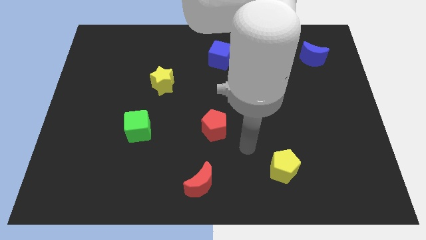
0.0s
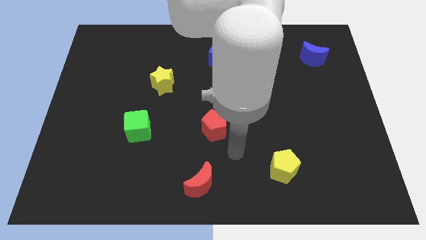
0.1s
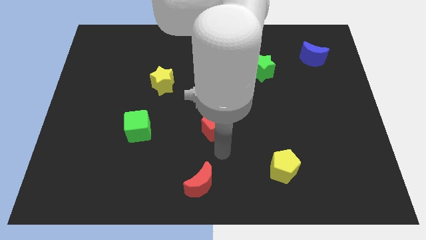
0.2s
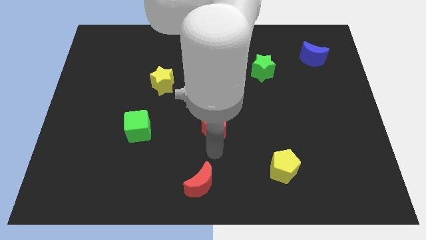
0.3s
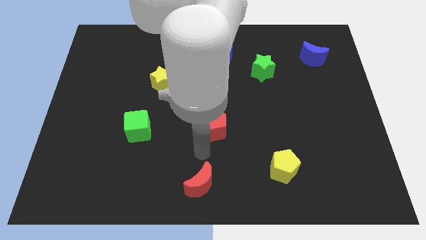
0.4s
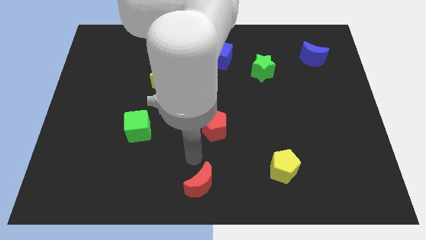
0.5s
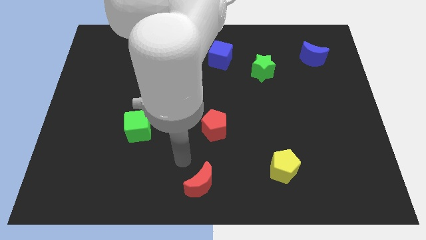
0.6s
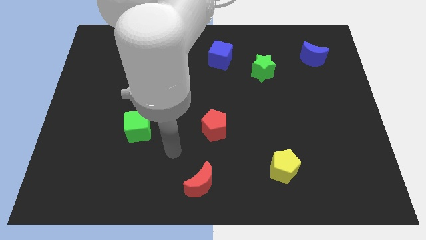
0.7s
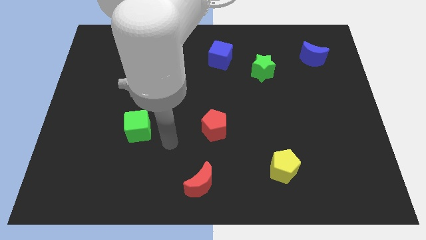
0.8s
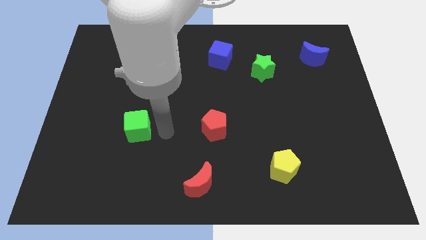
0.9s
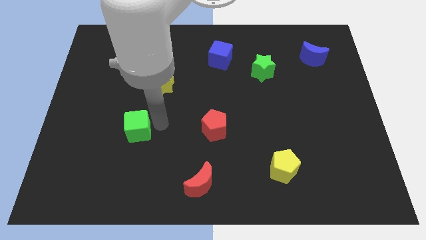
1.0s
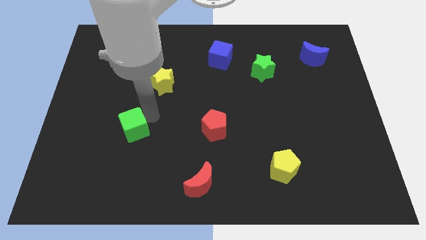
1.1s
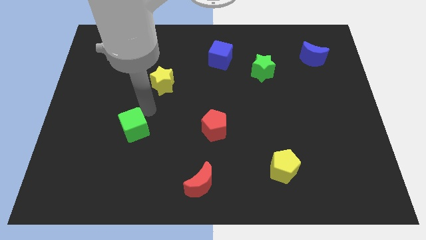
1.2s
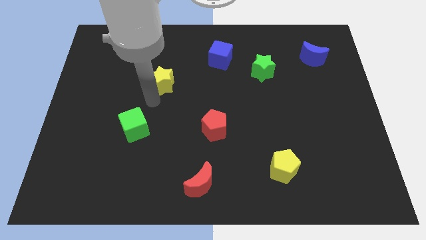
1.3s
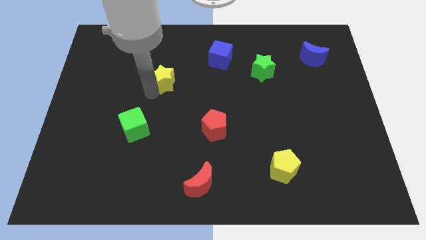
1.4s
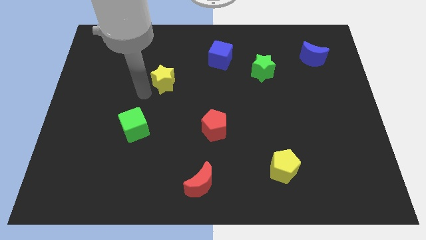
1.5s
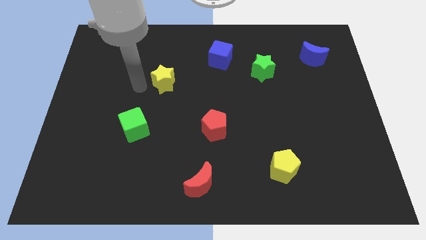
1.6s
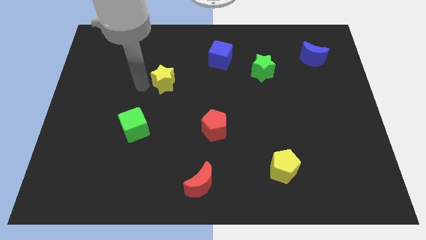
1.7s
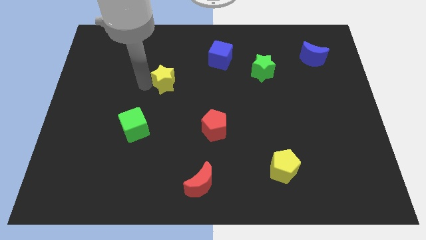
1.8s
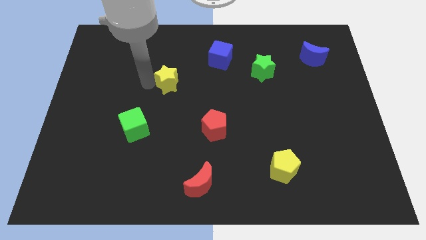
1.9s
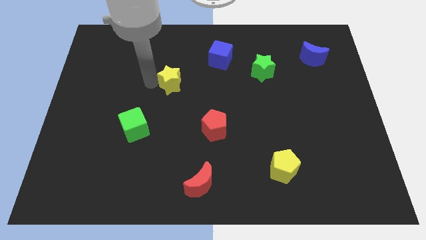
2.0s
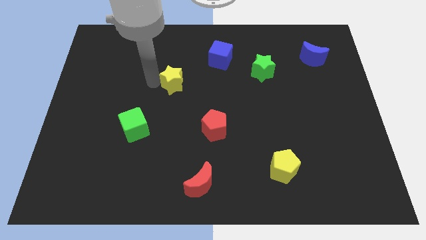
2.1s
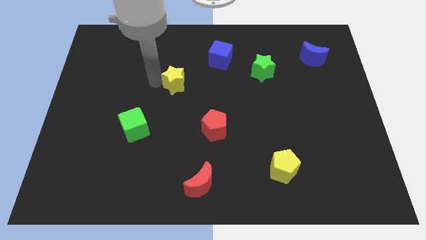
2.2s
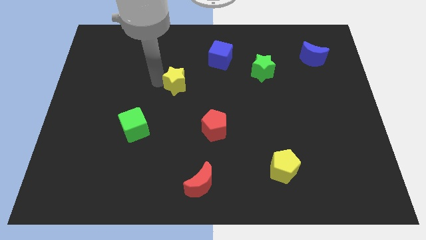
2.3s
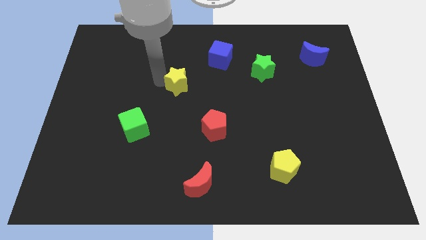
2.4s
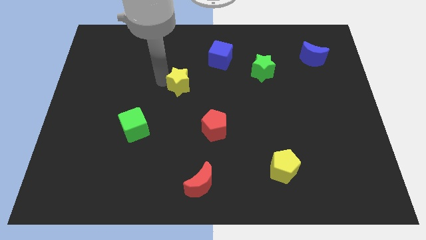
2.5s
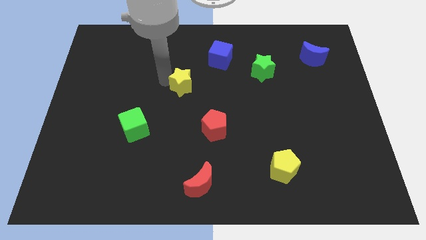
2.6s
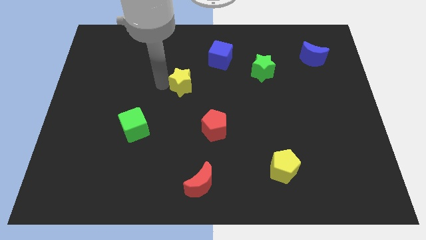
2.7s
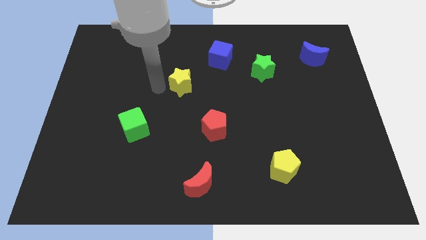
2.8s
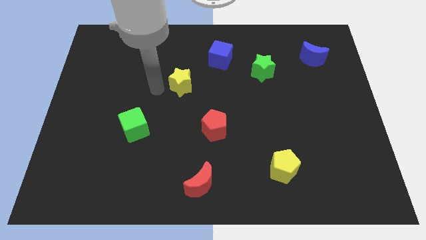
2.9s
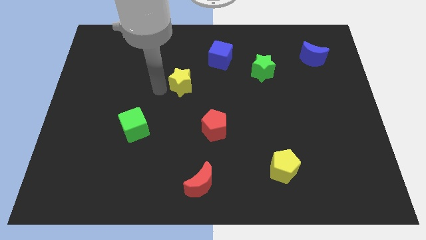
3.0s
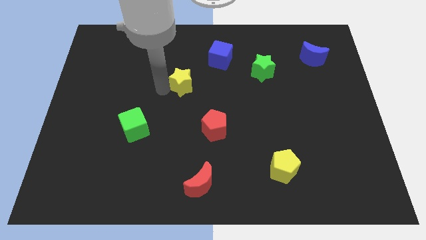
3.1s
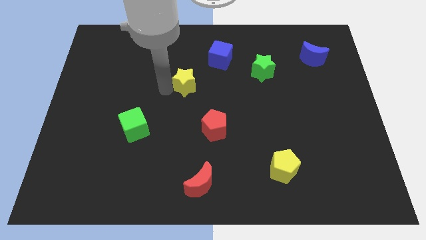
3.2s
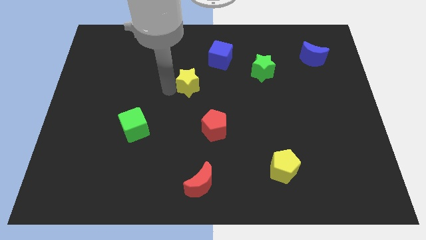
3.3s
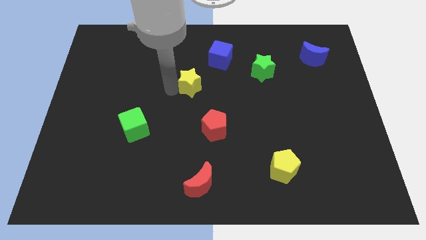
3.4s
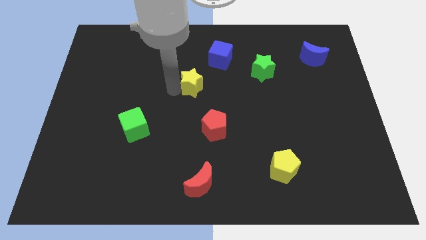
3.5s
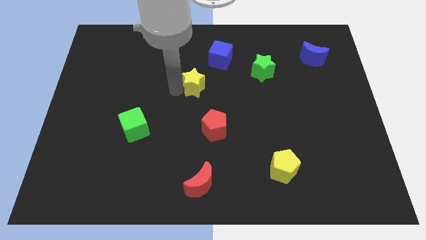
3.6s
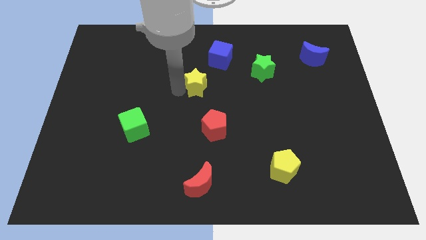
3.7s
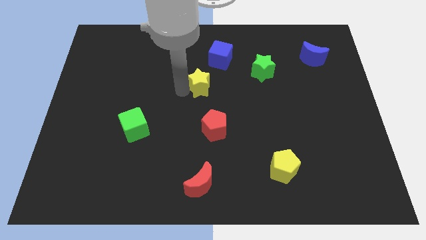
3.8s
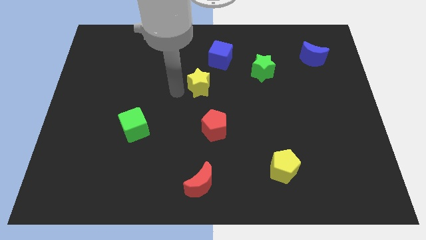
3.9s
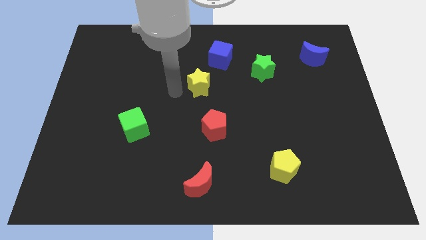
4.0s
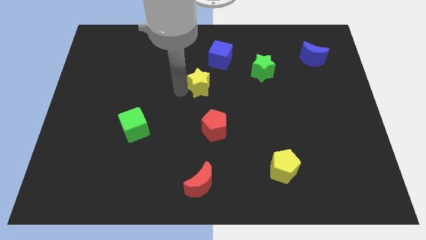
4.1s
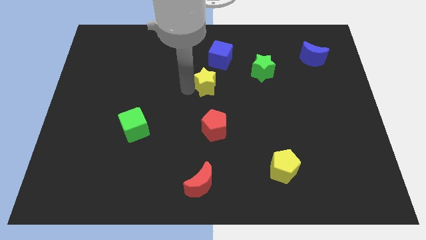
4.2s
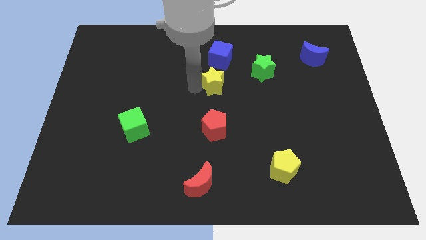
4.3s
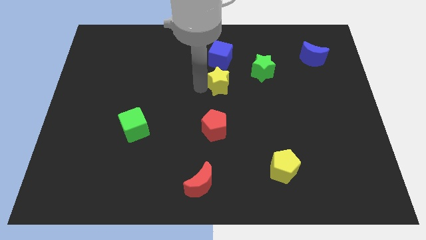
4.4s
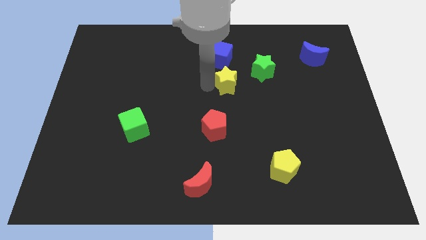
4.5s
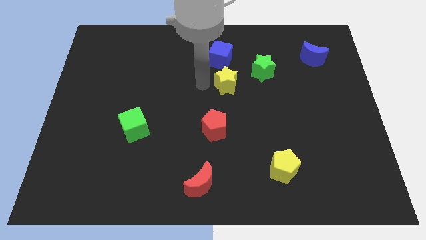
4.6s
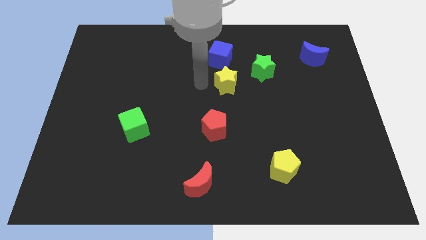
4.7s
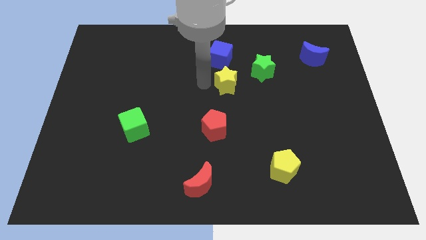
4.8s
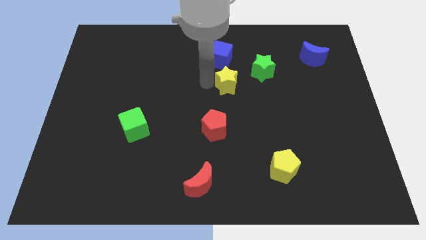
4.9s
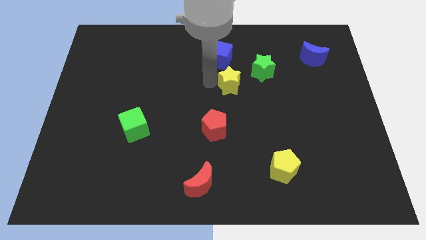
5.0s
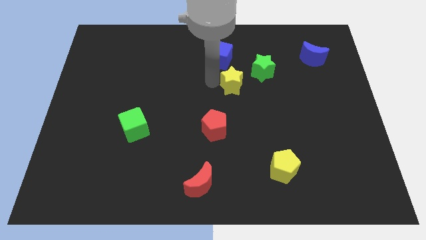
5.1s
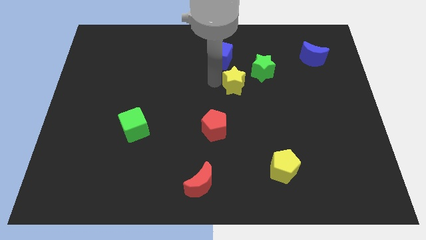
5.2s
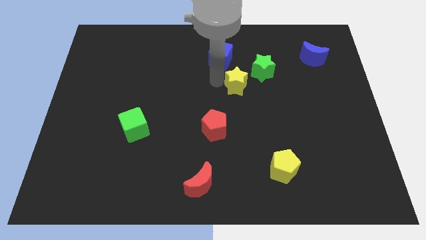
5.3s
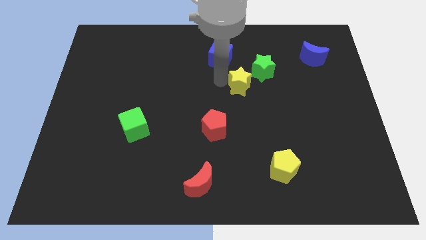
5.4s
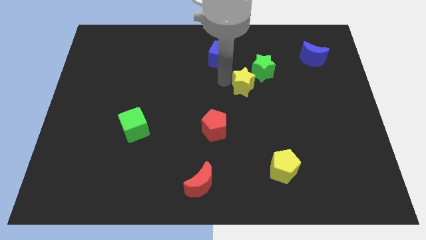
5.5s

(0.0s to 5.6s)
slide the yellow star right

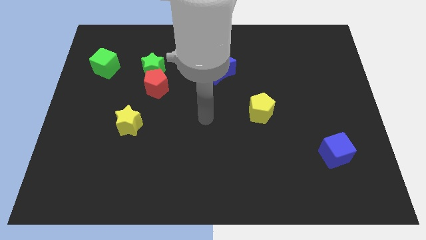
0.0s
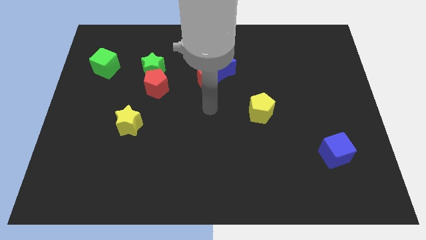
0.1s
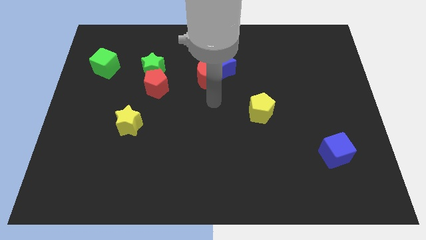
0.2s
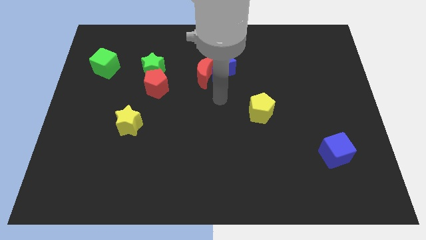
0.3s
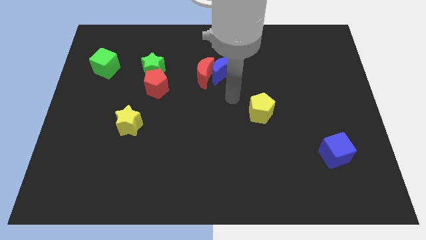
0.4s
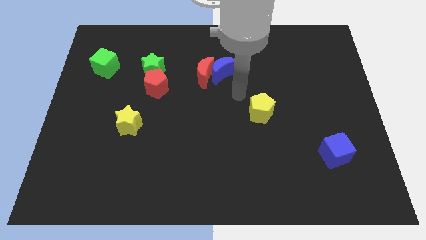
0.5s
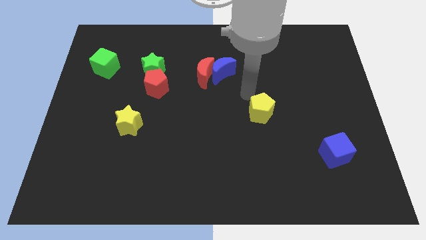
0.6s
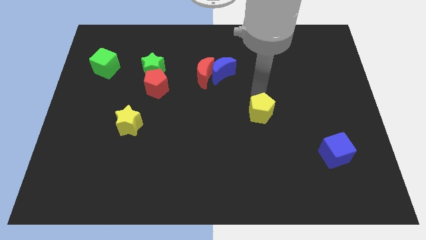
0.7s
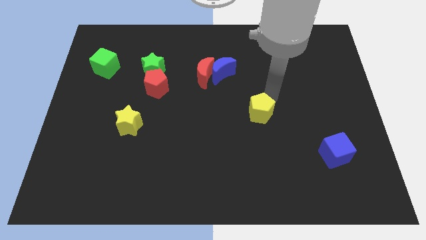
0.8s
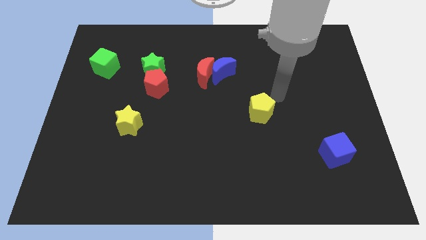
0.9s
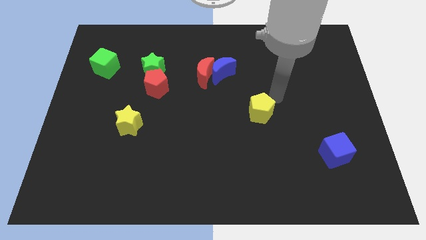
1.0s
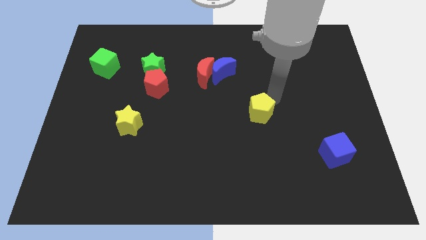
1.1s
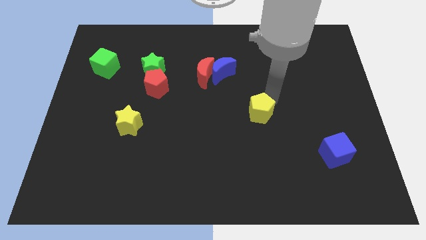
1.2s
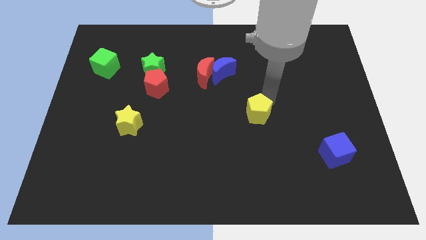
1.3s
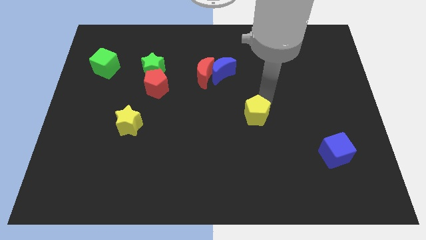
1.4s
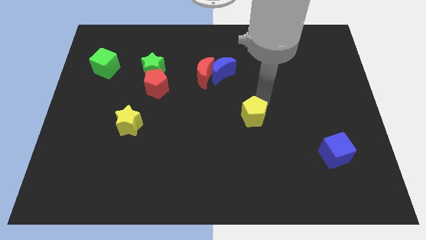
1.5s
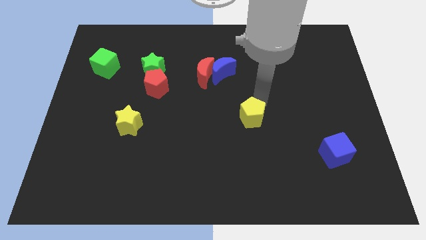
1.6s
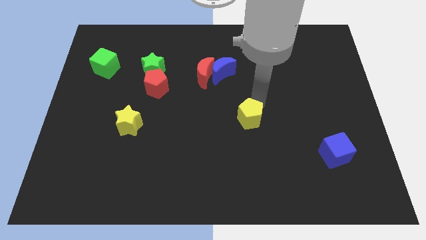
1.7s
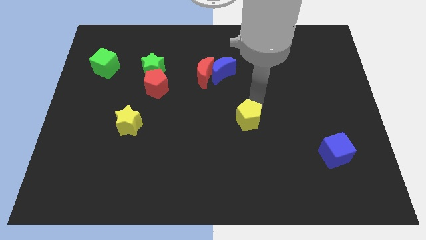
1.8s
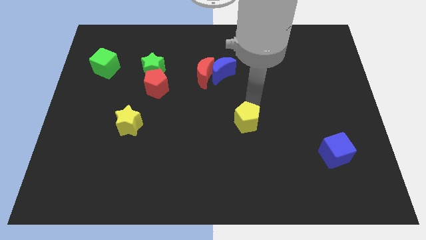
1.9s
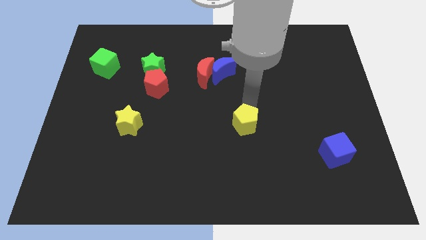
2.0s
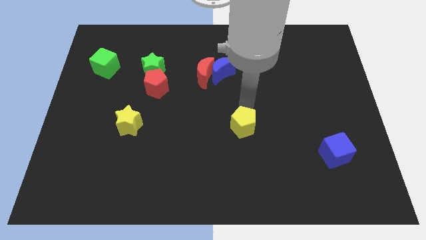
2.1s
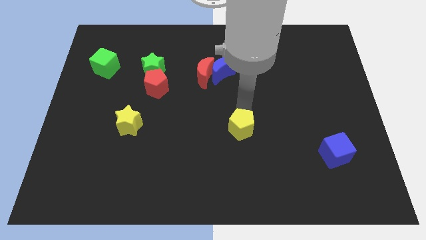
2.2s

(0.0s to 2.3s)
slightly push the yellow pentagon diagonally down and to the left

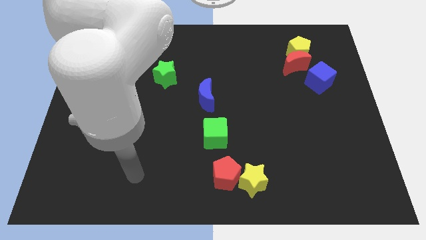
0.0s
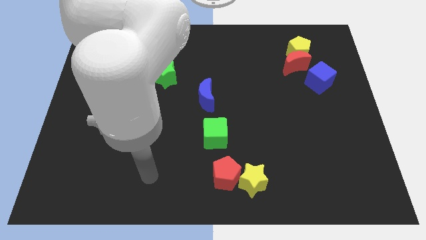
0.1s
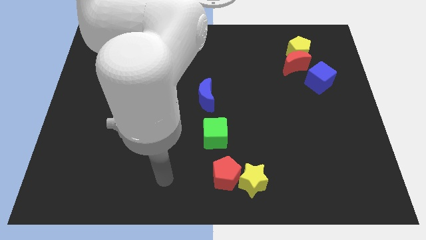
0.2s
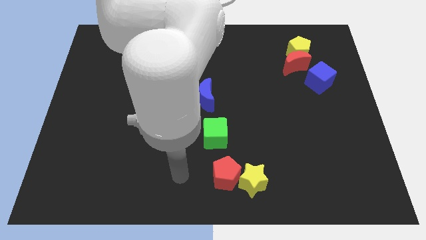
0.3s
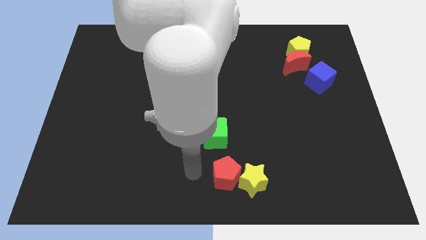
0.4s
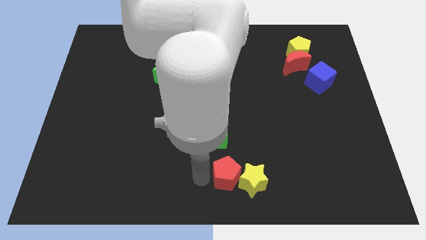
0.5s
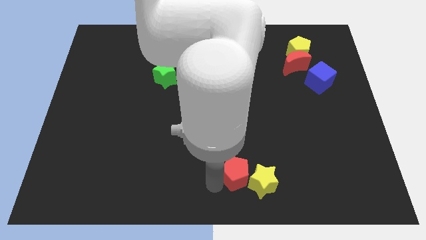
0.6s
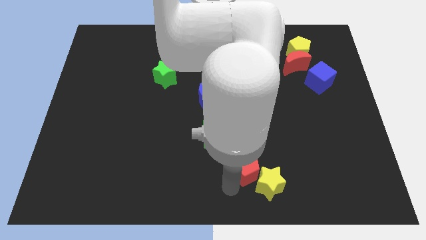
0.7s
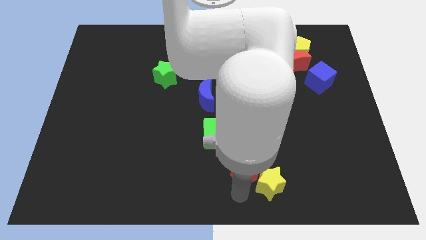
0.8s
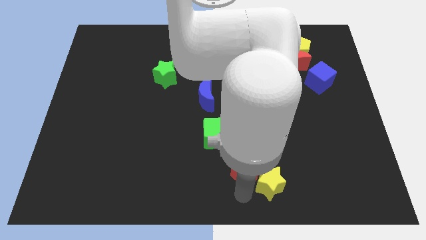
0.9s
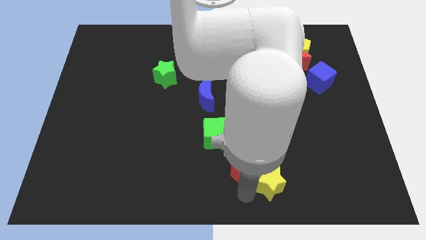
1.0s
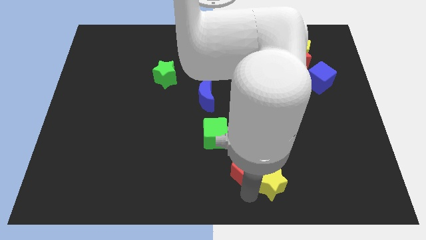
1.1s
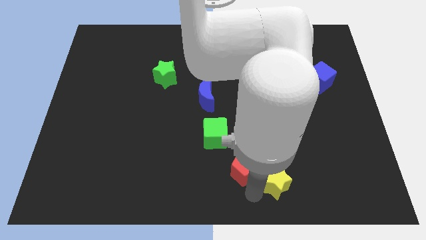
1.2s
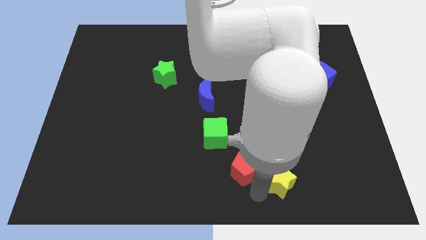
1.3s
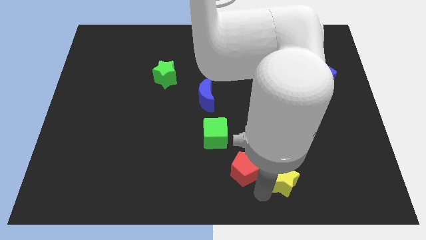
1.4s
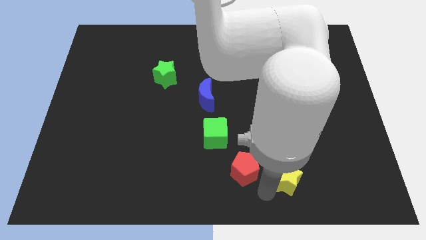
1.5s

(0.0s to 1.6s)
push the yellow star right a little
